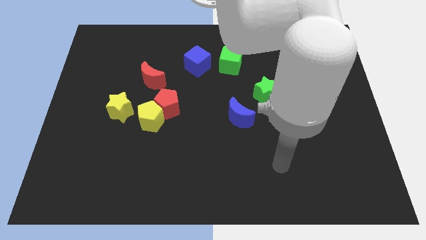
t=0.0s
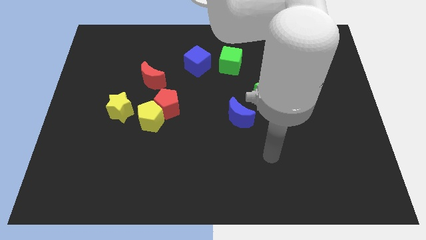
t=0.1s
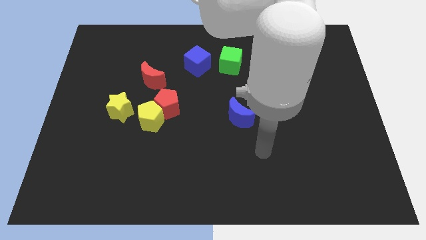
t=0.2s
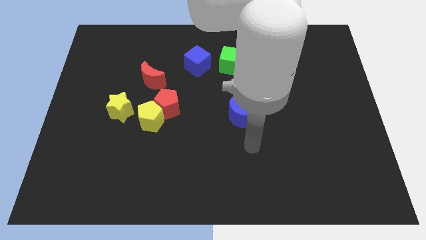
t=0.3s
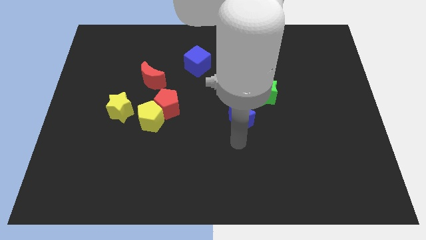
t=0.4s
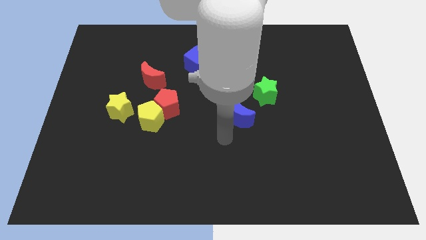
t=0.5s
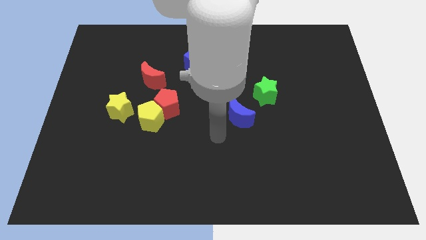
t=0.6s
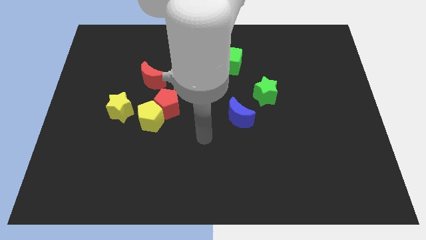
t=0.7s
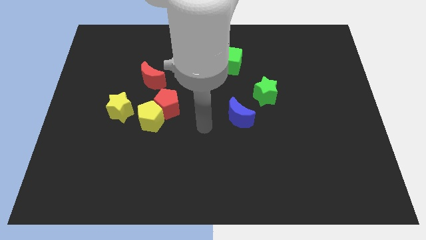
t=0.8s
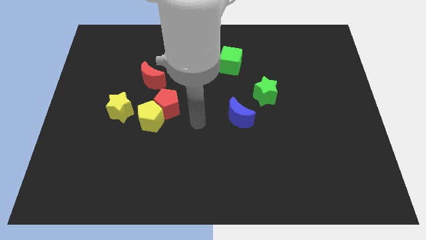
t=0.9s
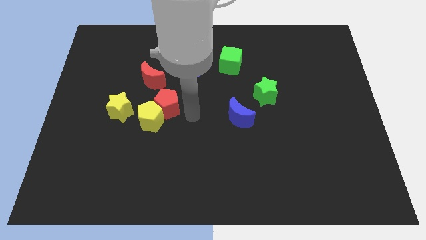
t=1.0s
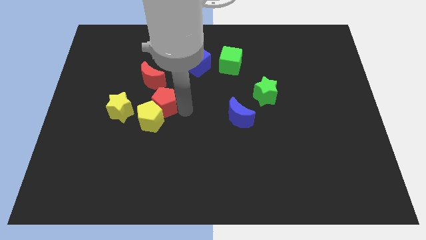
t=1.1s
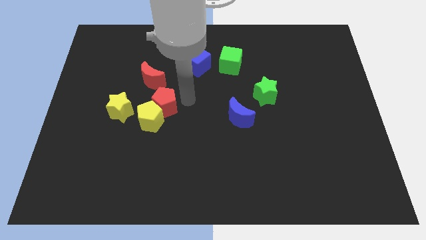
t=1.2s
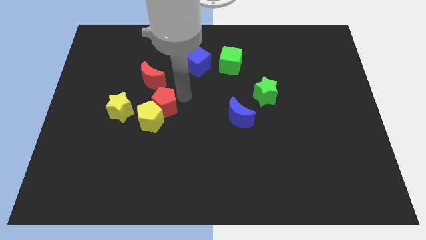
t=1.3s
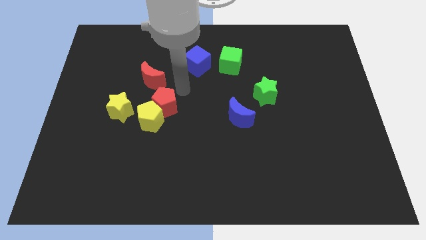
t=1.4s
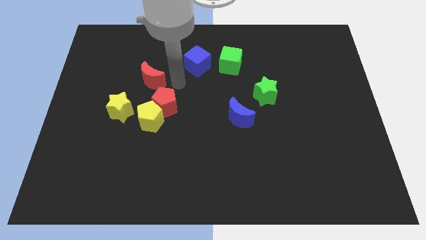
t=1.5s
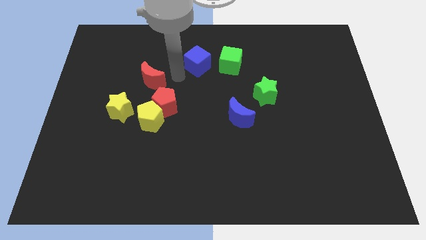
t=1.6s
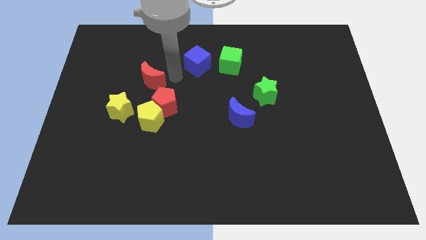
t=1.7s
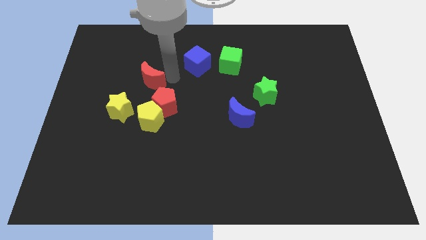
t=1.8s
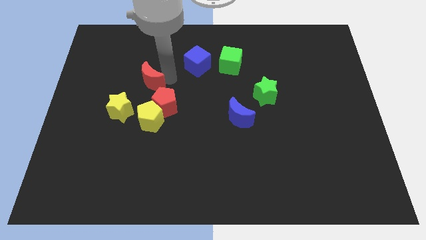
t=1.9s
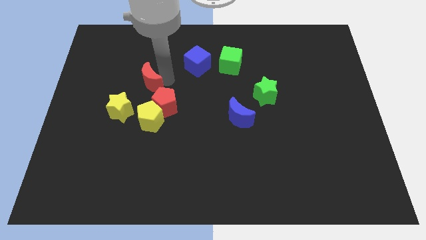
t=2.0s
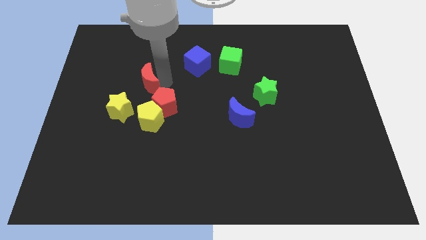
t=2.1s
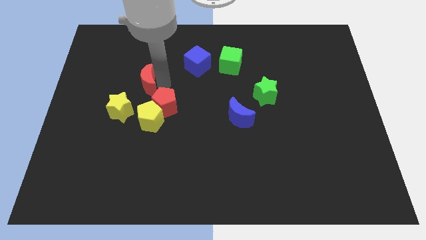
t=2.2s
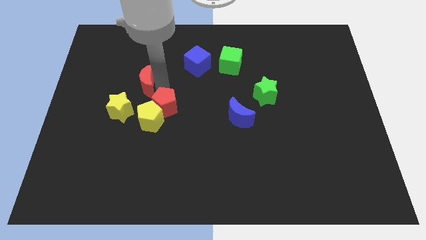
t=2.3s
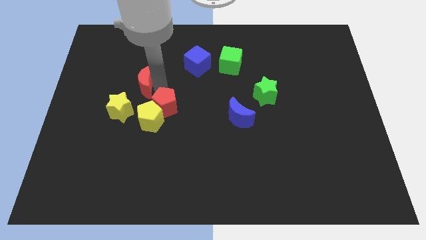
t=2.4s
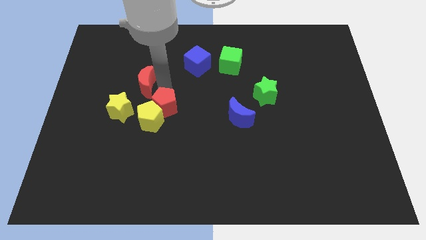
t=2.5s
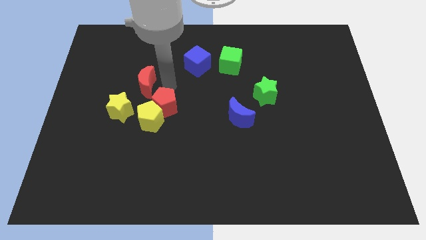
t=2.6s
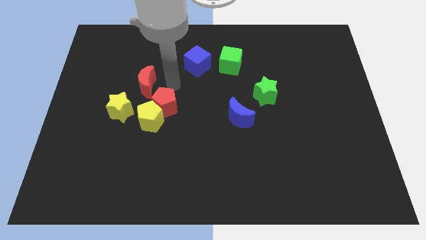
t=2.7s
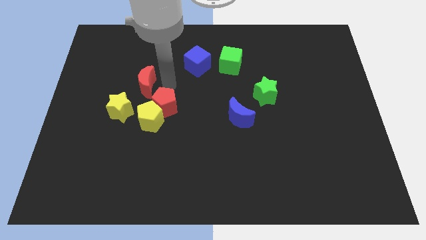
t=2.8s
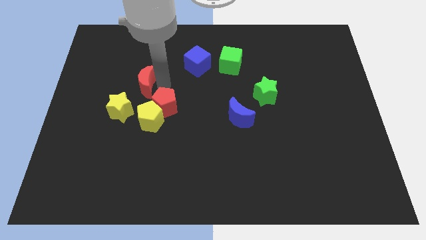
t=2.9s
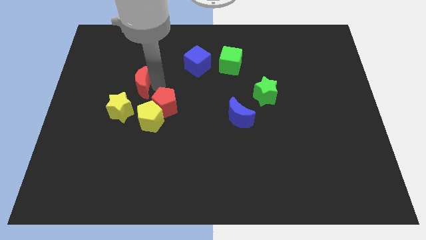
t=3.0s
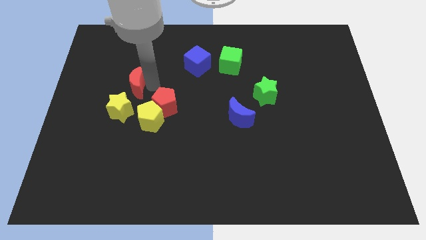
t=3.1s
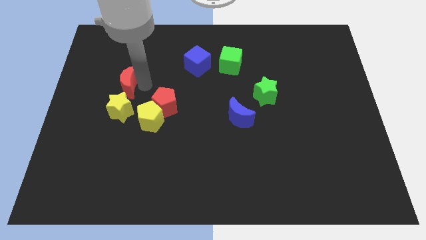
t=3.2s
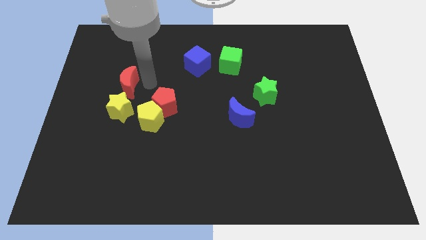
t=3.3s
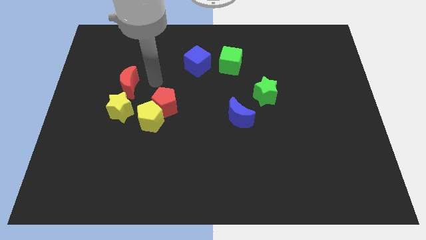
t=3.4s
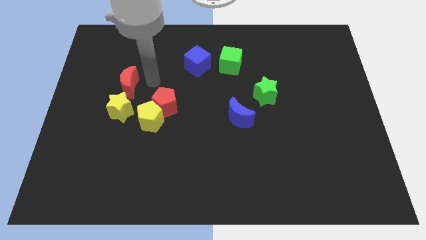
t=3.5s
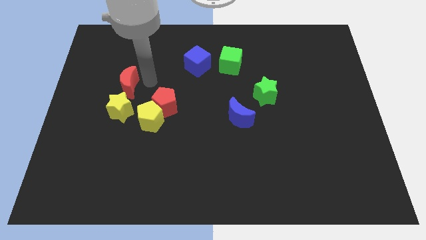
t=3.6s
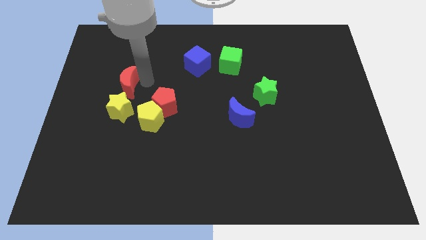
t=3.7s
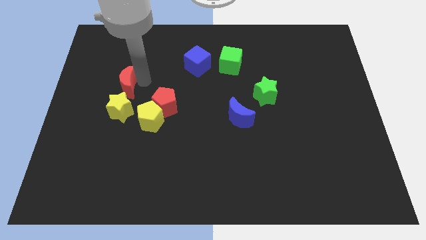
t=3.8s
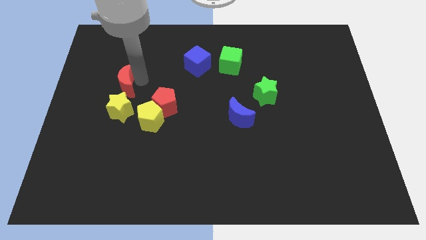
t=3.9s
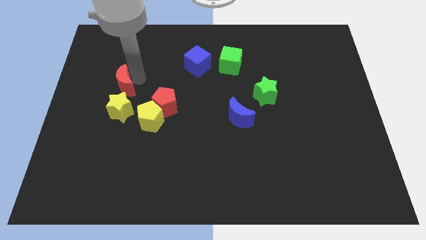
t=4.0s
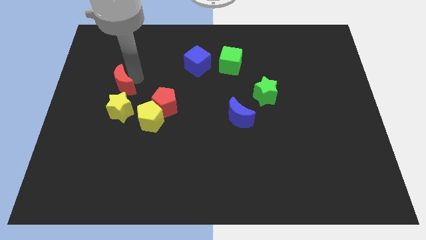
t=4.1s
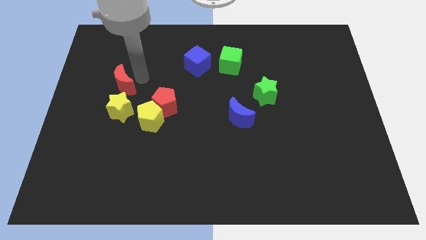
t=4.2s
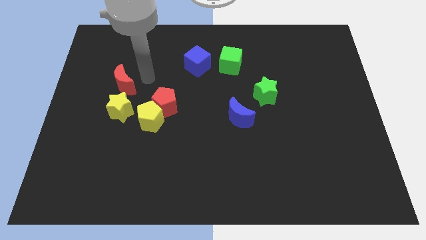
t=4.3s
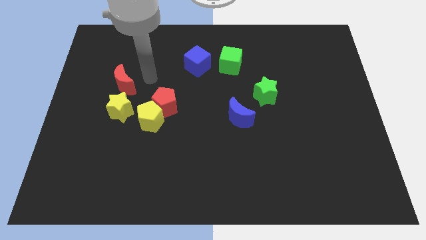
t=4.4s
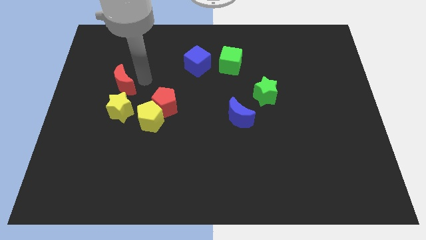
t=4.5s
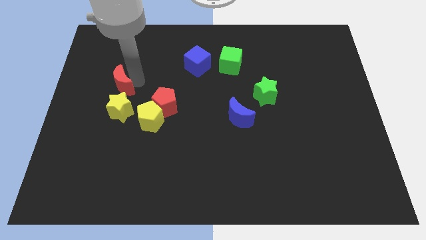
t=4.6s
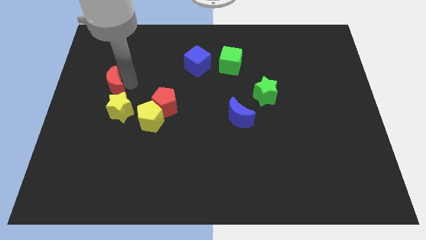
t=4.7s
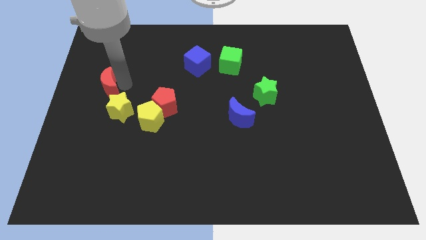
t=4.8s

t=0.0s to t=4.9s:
push the red moon to the center left

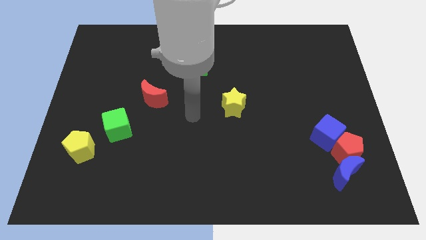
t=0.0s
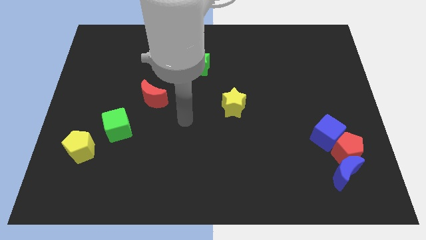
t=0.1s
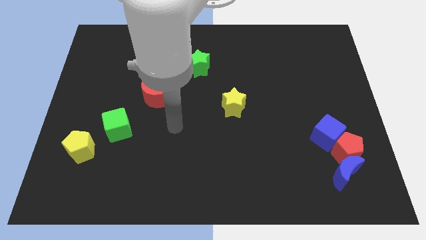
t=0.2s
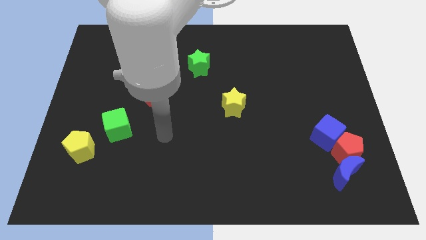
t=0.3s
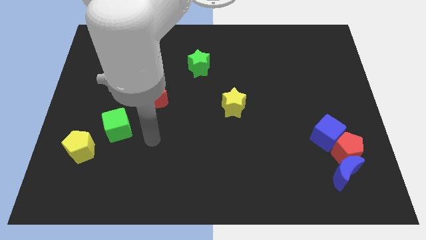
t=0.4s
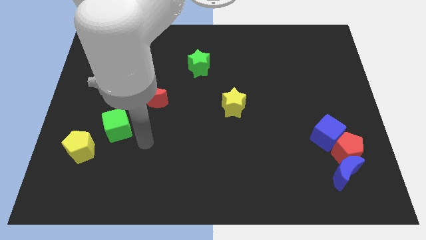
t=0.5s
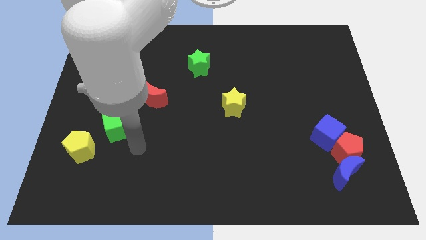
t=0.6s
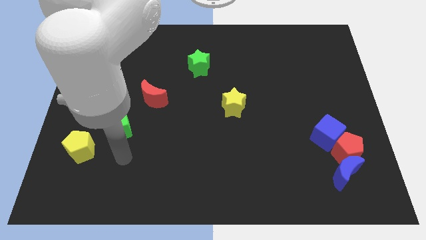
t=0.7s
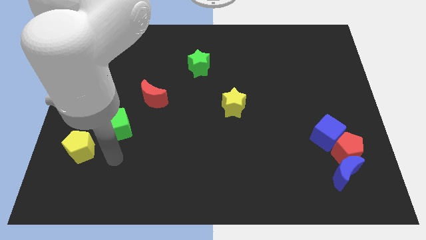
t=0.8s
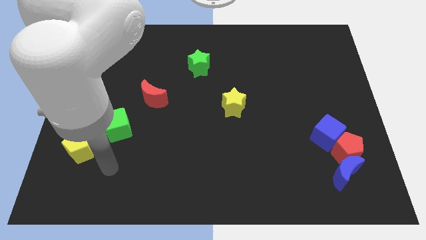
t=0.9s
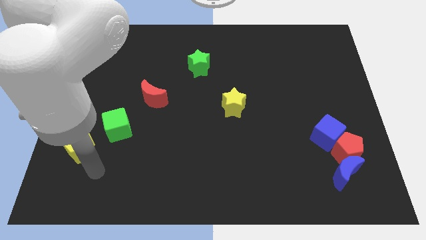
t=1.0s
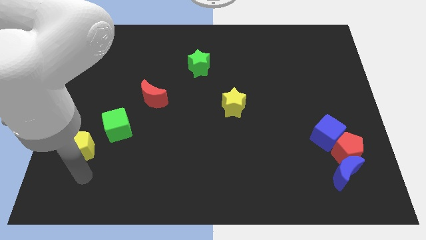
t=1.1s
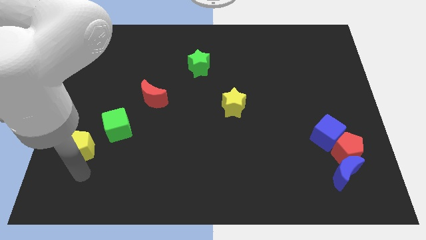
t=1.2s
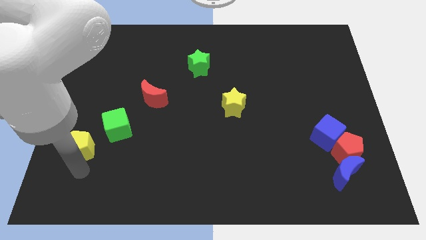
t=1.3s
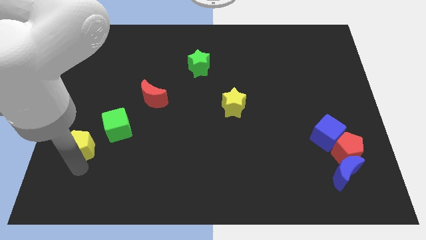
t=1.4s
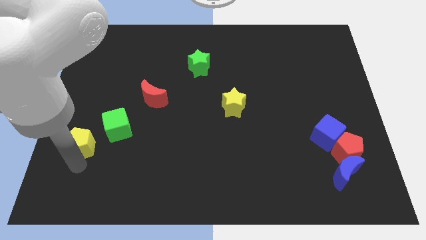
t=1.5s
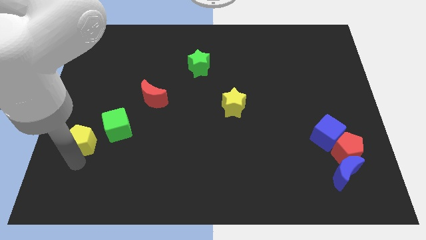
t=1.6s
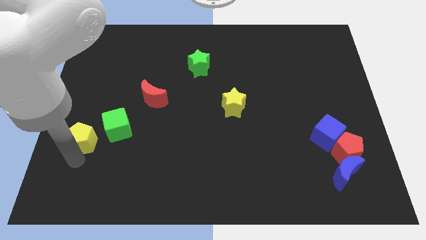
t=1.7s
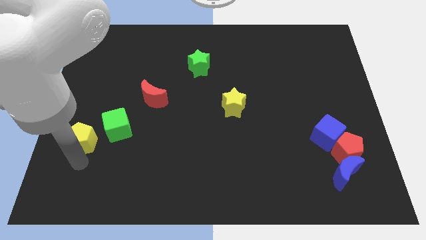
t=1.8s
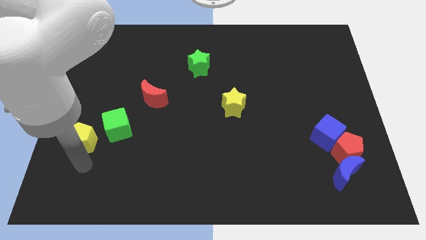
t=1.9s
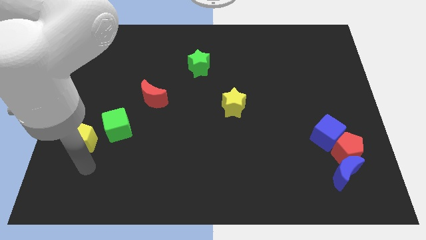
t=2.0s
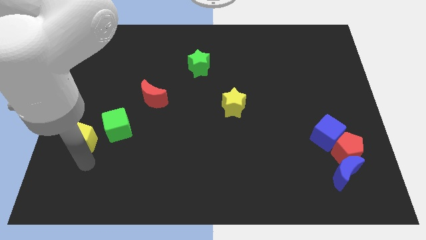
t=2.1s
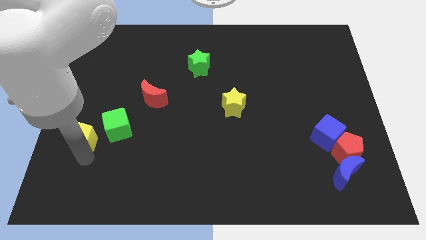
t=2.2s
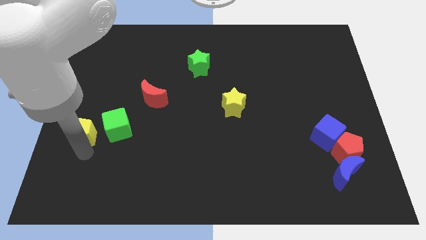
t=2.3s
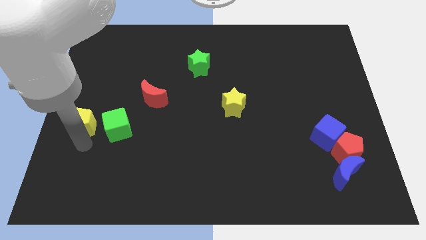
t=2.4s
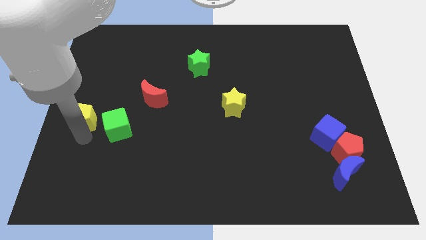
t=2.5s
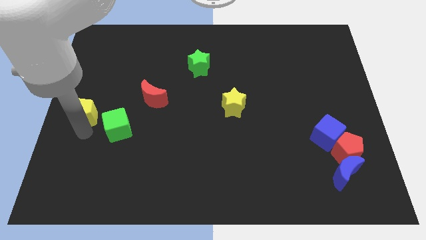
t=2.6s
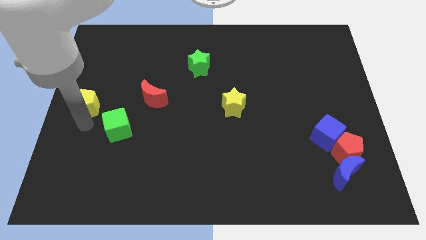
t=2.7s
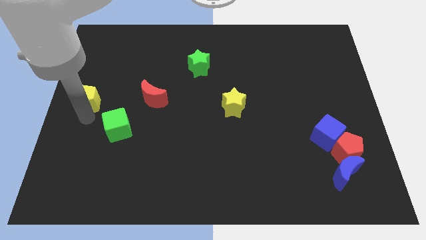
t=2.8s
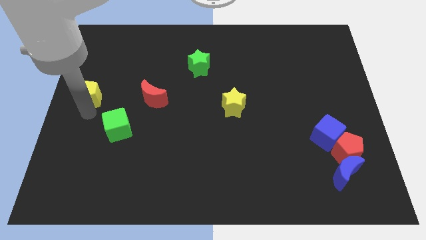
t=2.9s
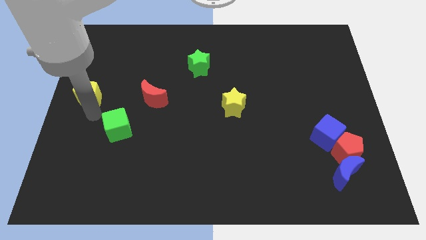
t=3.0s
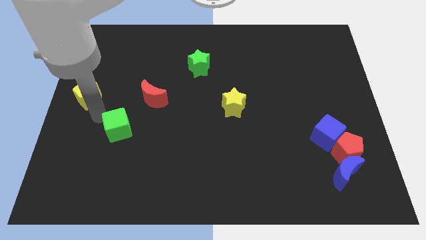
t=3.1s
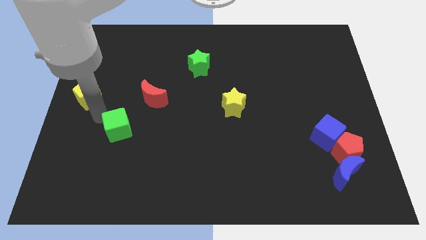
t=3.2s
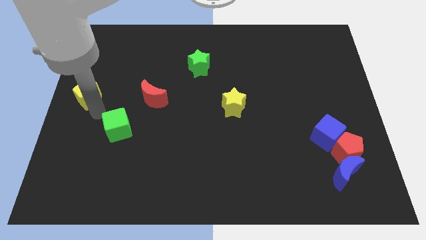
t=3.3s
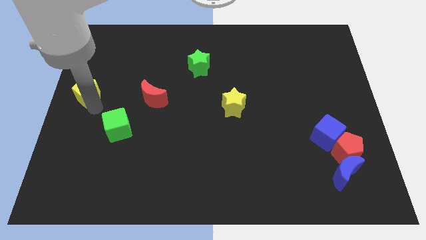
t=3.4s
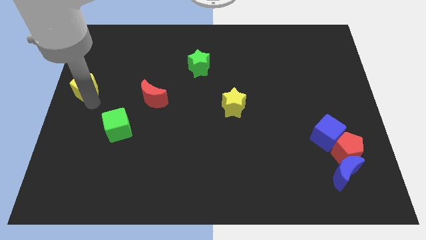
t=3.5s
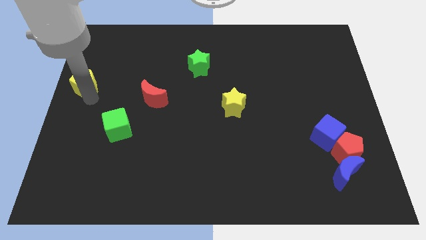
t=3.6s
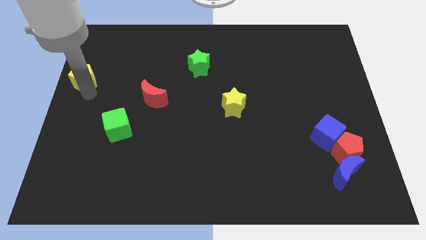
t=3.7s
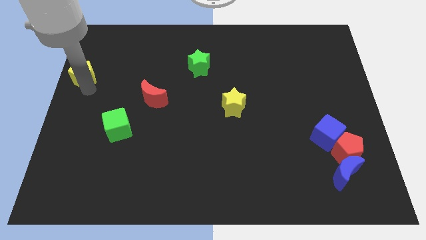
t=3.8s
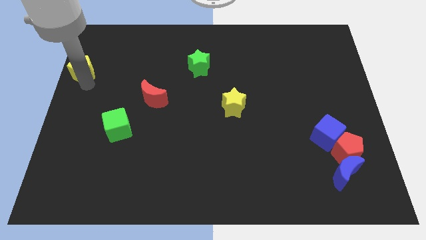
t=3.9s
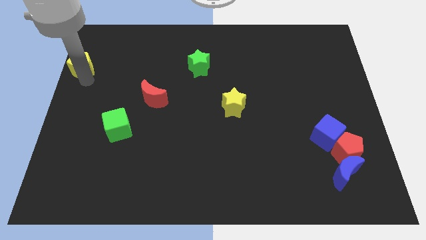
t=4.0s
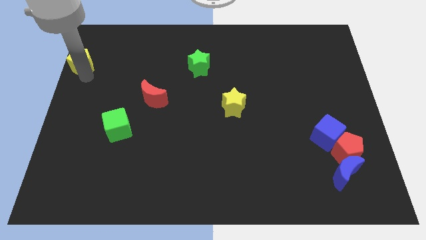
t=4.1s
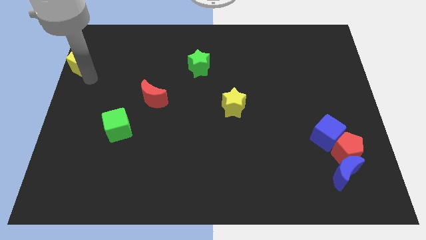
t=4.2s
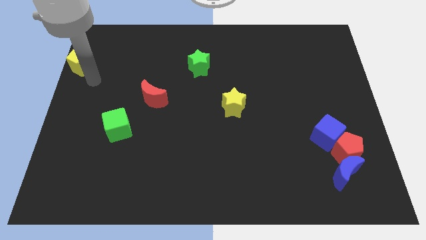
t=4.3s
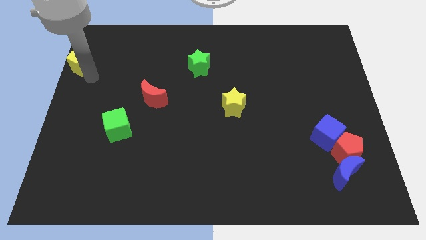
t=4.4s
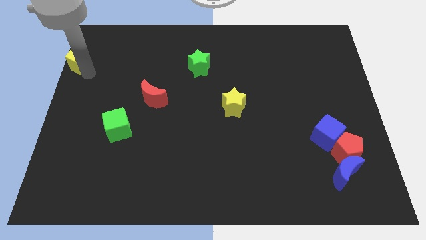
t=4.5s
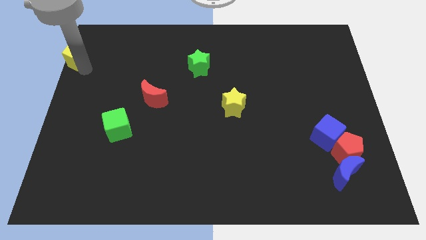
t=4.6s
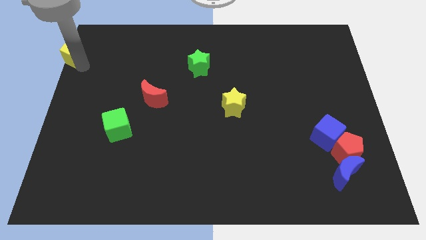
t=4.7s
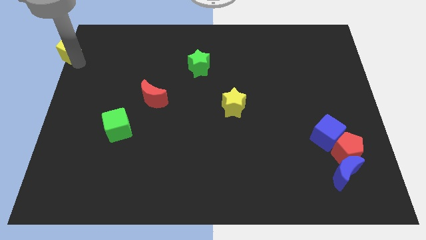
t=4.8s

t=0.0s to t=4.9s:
push the yellow pentagon to the top left of the board
